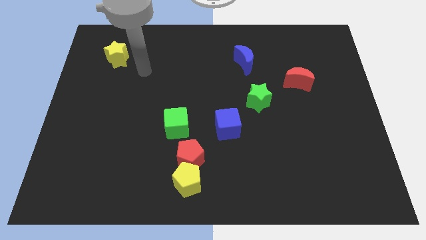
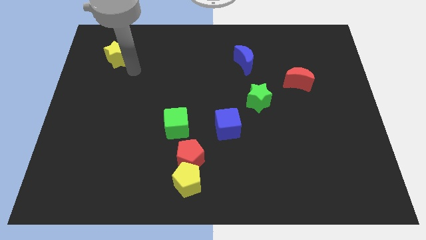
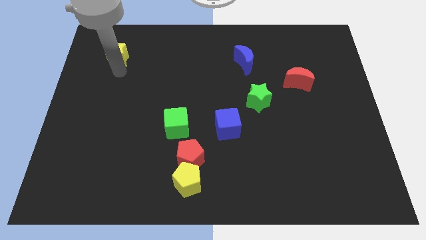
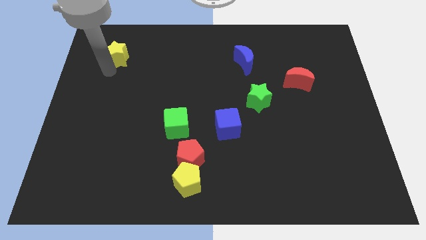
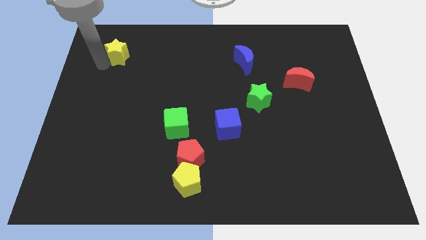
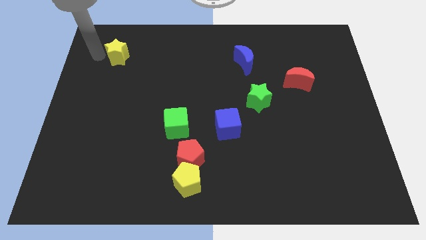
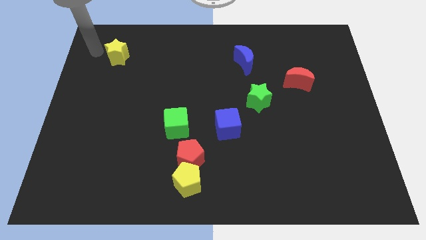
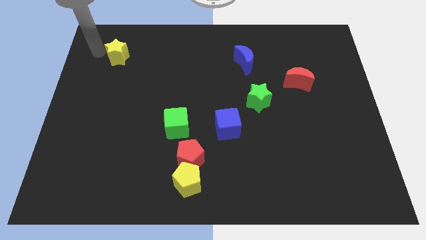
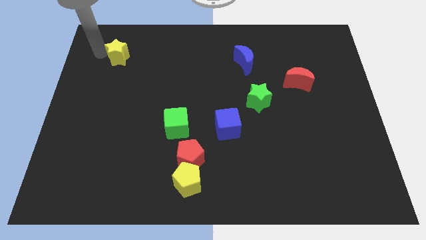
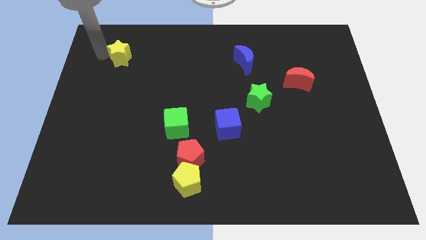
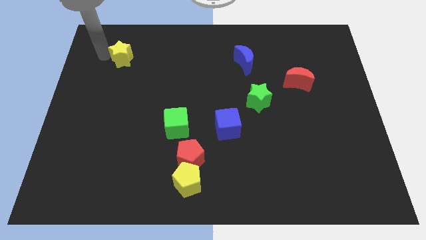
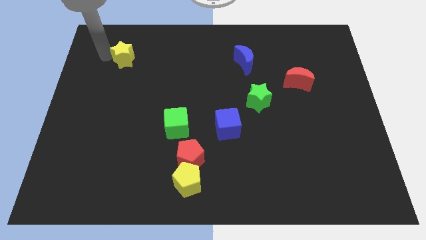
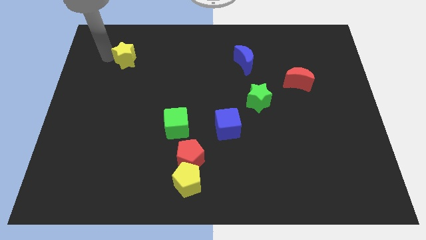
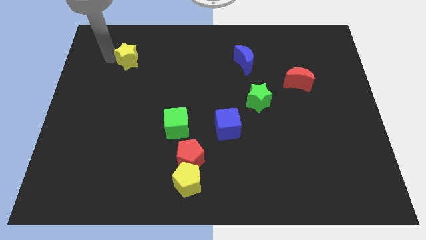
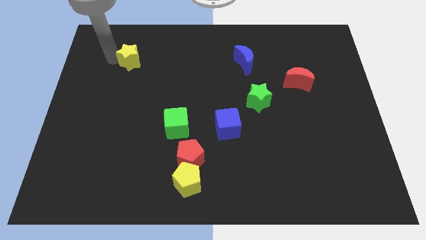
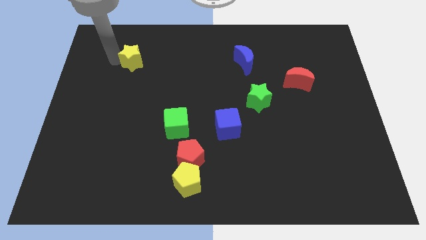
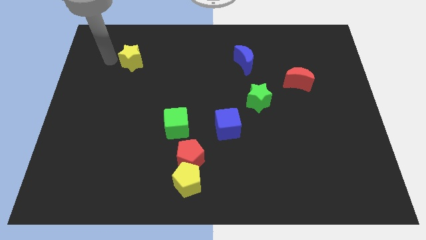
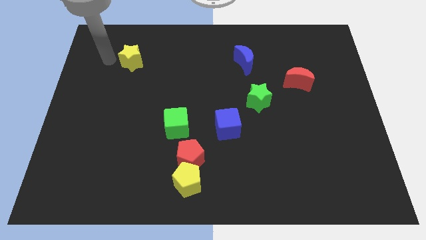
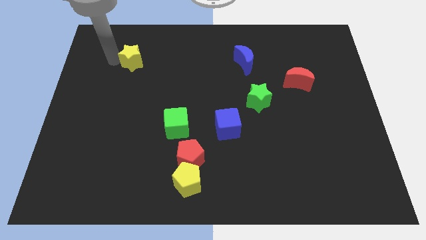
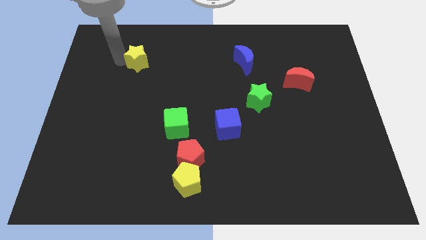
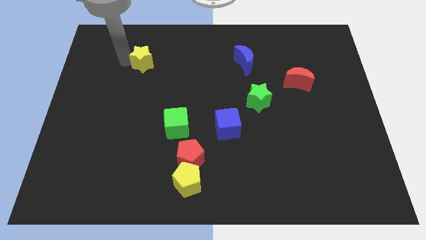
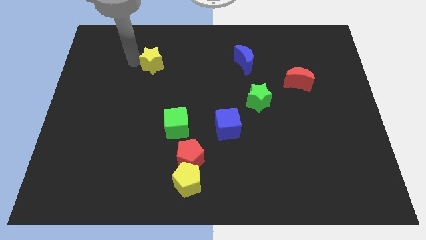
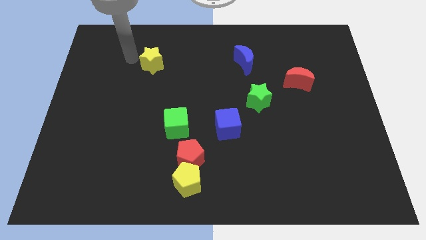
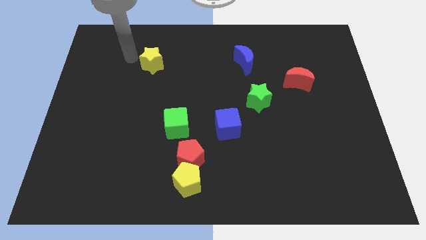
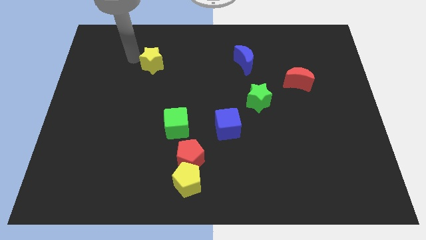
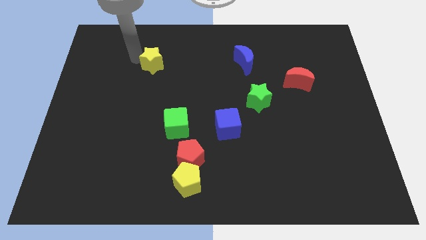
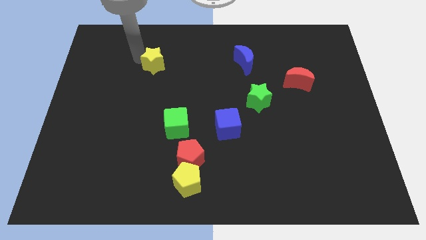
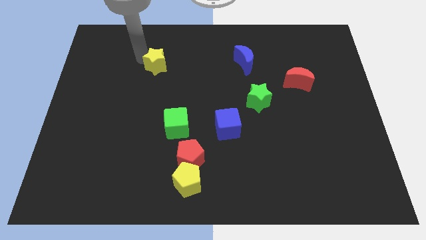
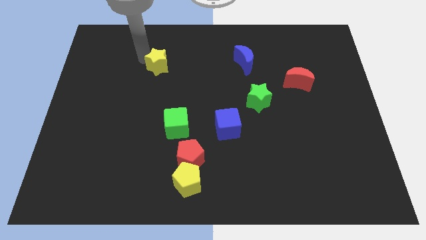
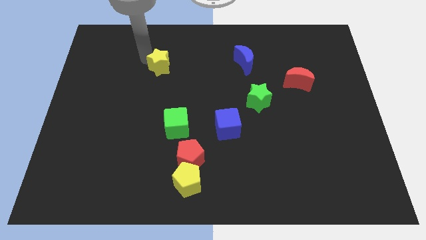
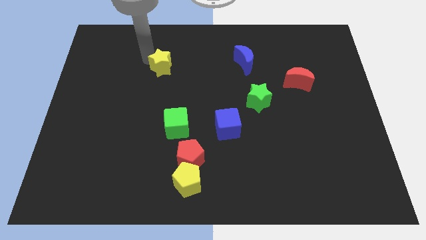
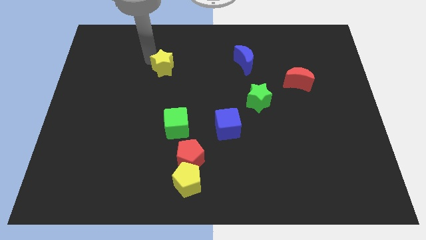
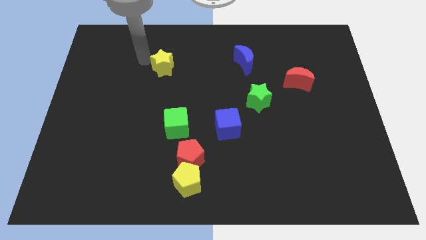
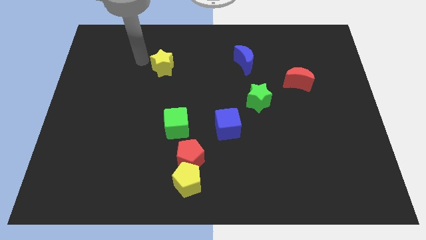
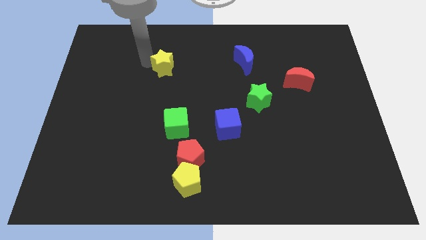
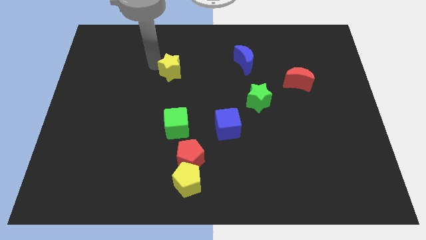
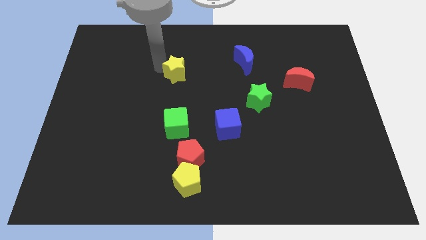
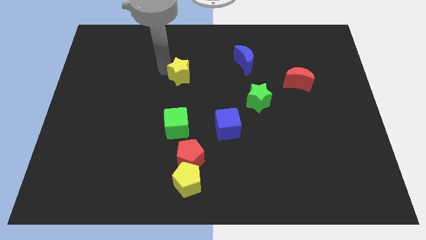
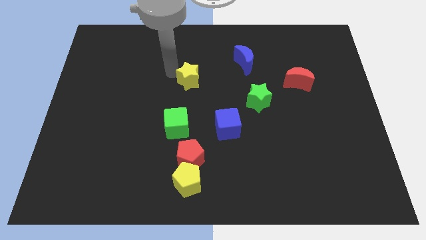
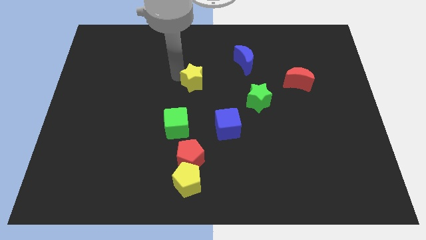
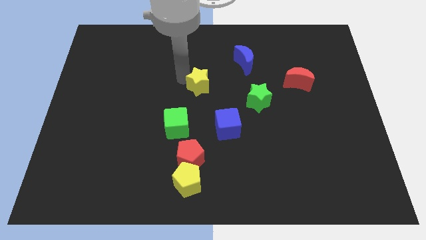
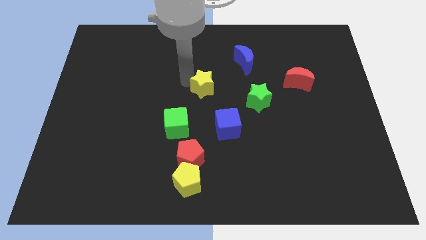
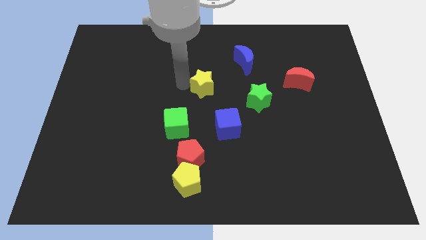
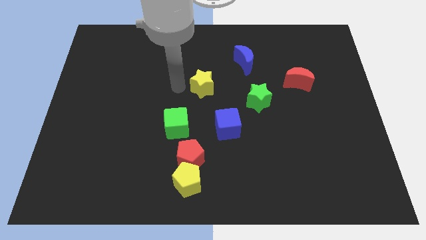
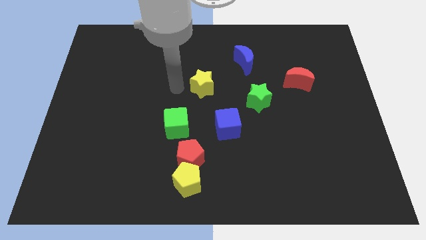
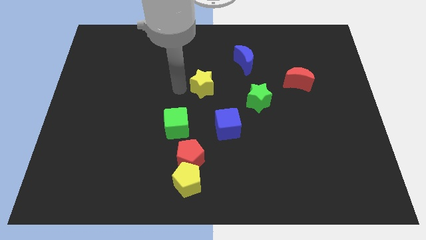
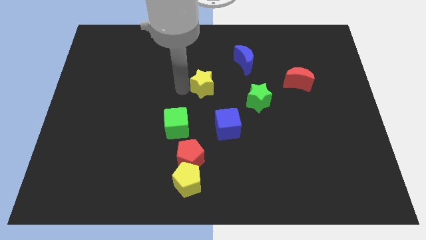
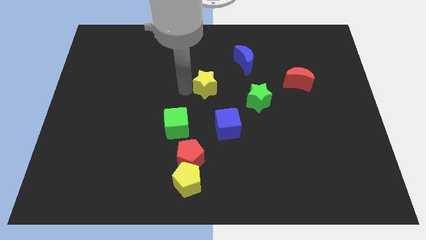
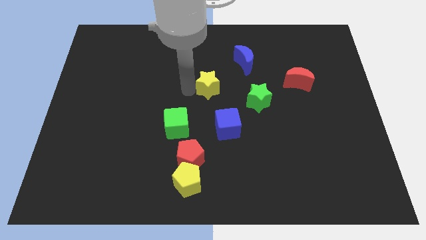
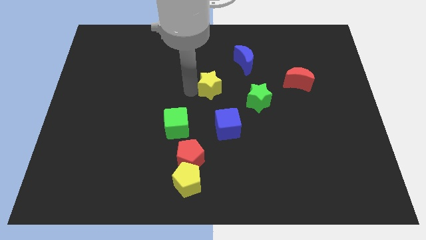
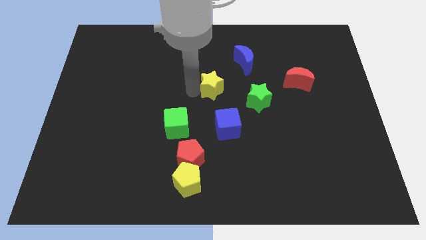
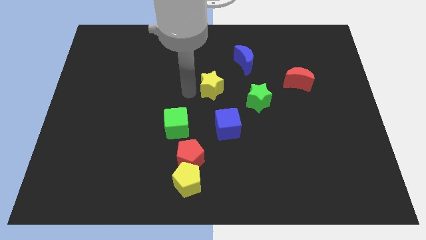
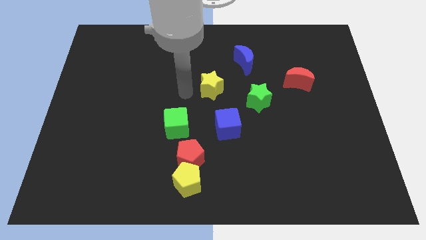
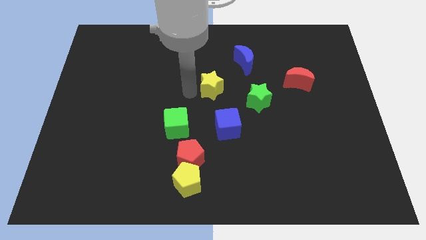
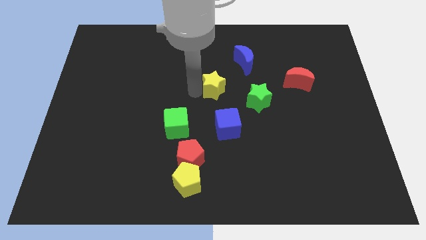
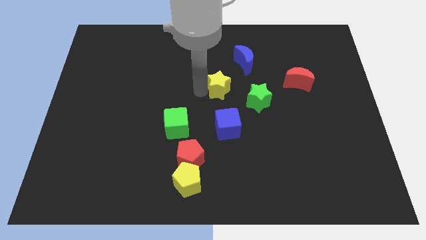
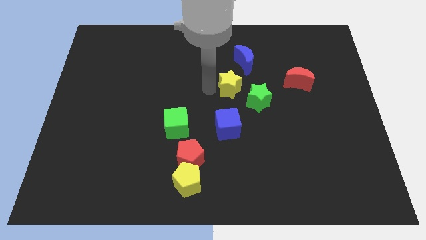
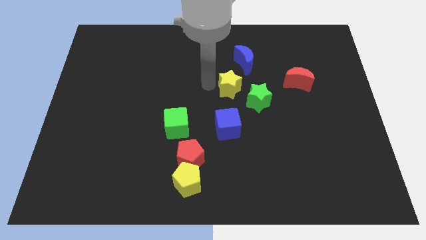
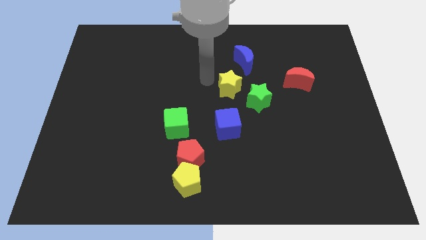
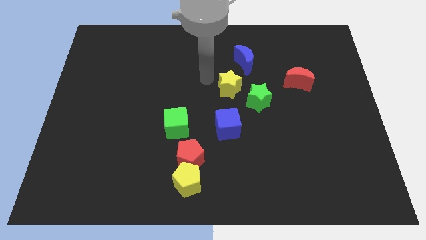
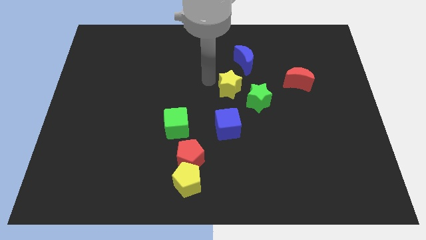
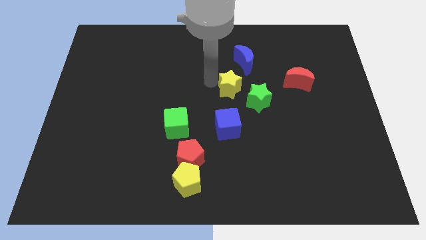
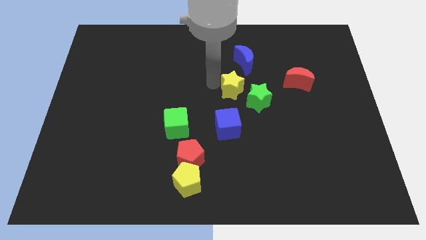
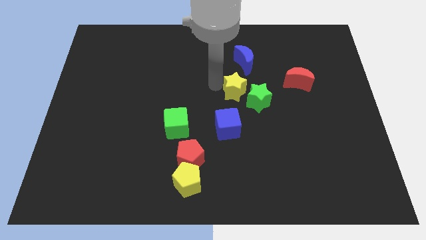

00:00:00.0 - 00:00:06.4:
move the yellow star towards the green star
